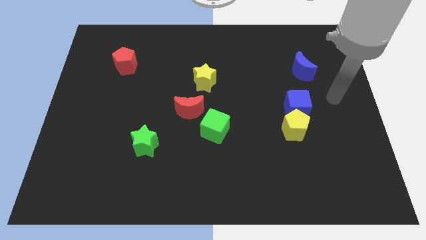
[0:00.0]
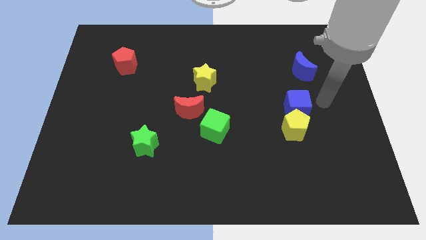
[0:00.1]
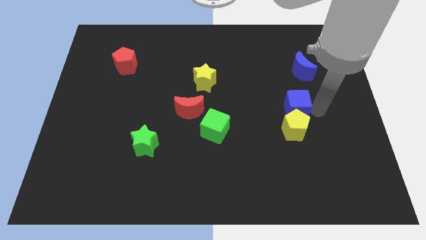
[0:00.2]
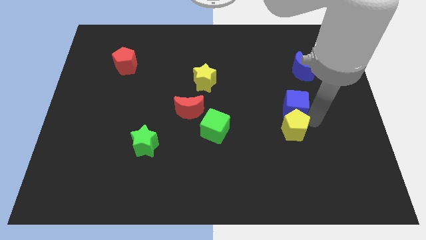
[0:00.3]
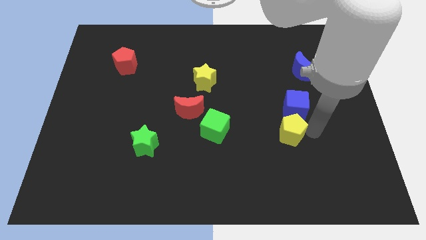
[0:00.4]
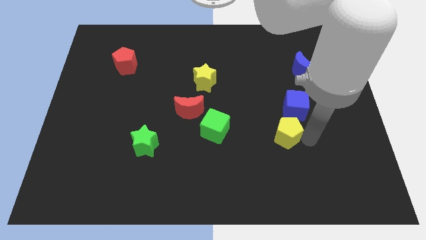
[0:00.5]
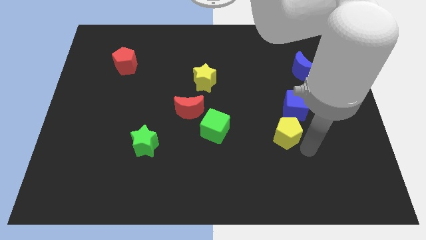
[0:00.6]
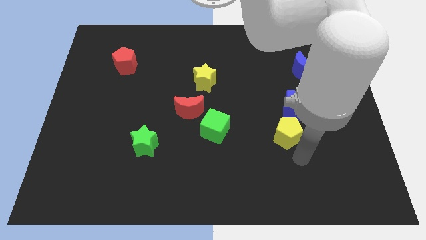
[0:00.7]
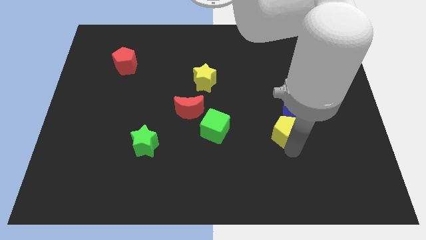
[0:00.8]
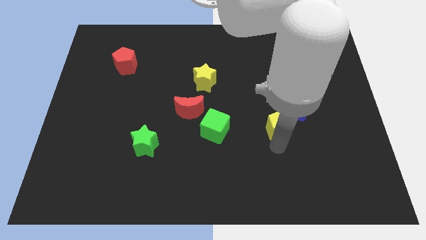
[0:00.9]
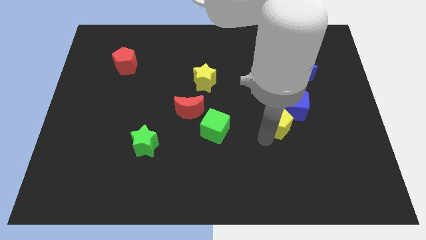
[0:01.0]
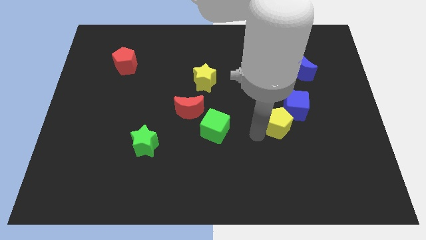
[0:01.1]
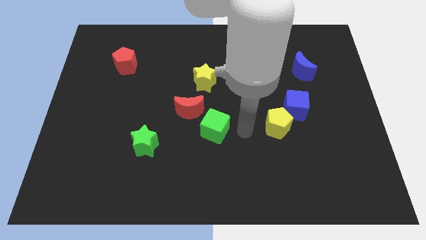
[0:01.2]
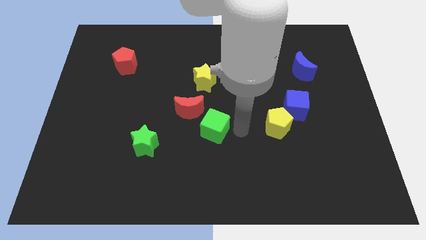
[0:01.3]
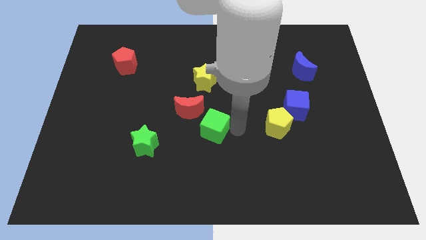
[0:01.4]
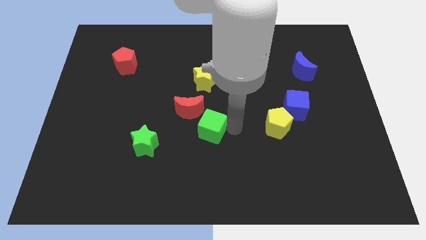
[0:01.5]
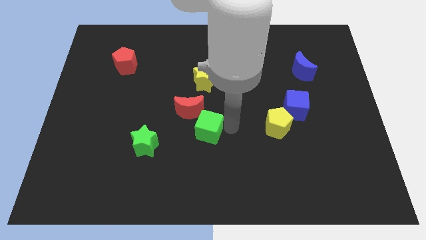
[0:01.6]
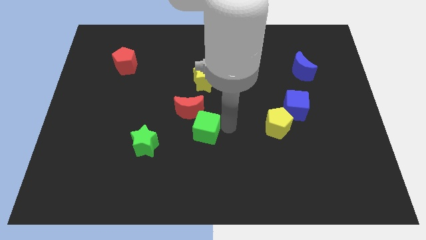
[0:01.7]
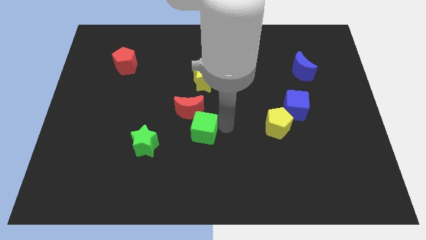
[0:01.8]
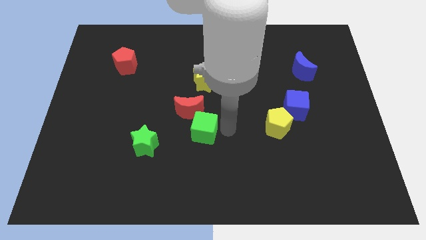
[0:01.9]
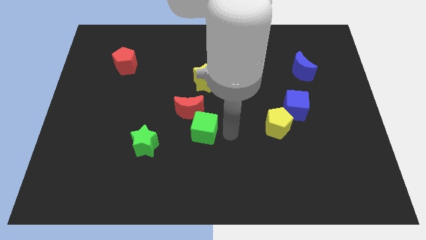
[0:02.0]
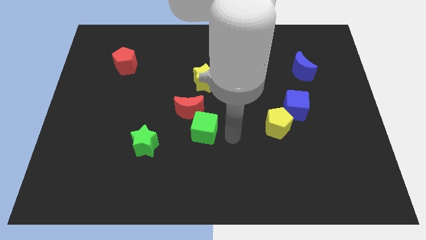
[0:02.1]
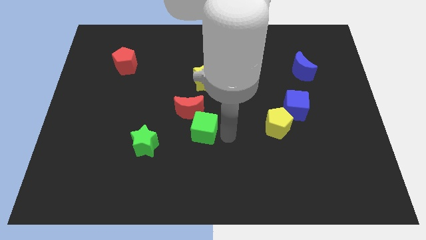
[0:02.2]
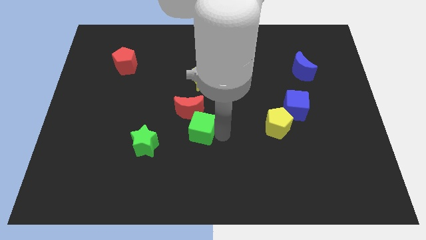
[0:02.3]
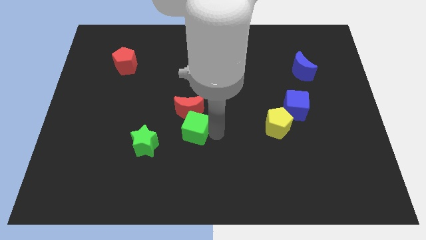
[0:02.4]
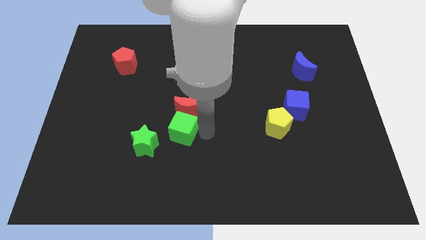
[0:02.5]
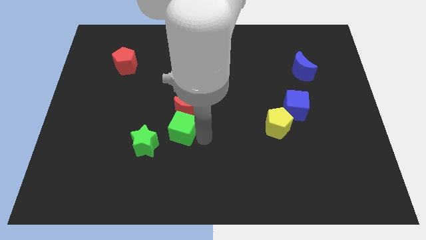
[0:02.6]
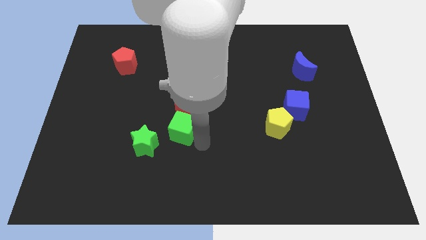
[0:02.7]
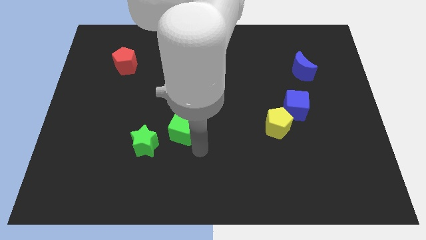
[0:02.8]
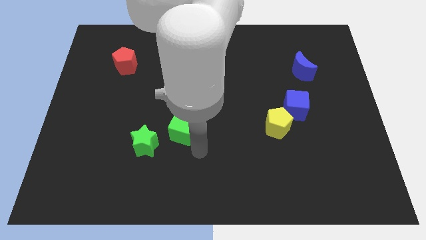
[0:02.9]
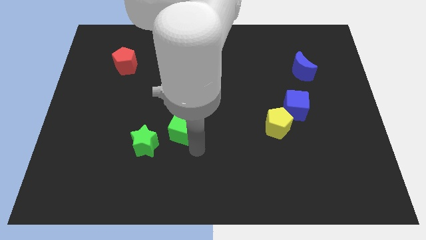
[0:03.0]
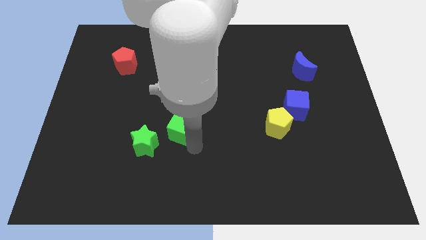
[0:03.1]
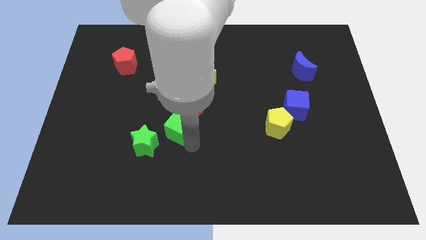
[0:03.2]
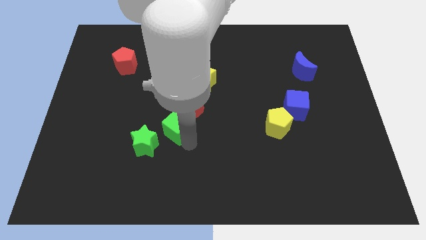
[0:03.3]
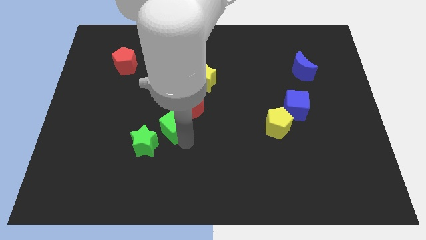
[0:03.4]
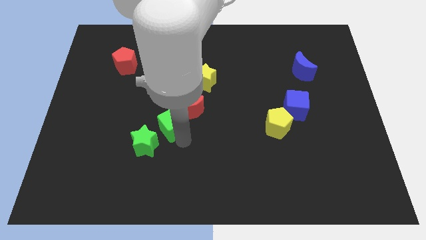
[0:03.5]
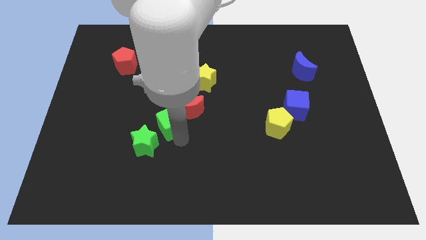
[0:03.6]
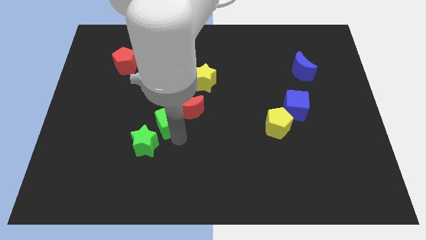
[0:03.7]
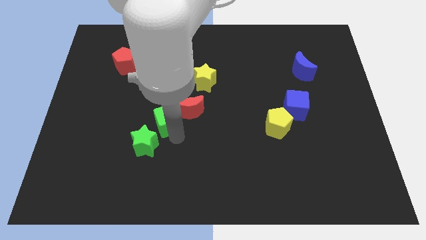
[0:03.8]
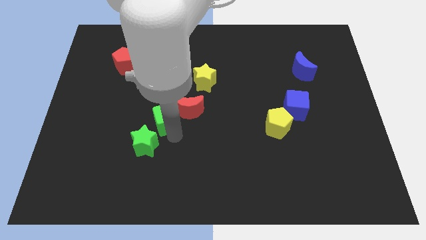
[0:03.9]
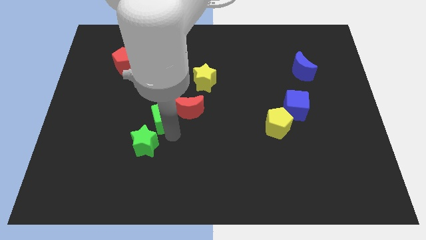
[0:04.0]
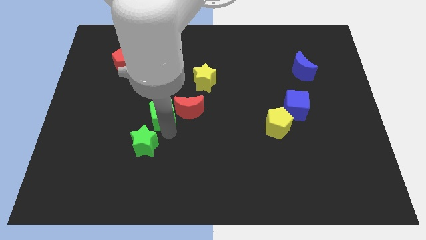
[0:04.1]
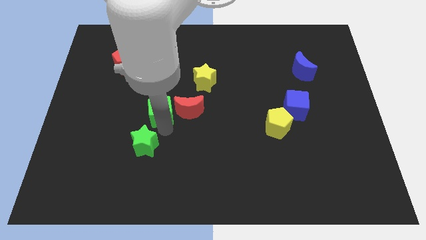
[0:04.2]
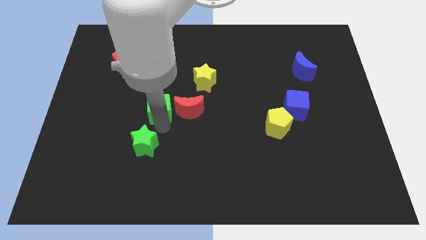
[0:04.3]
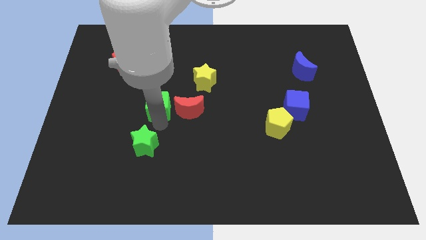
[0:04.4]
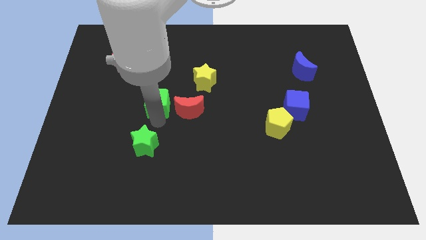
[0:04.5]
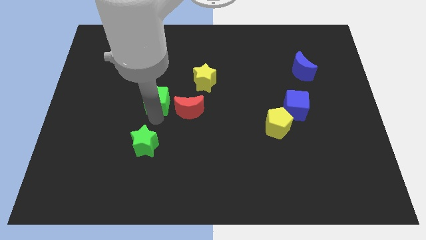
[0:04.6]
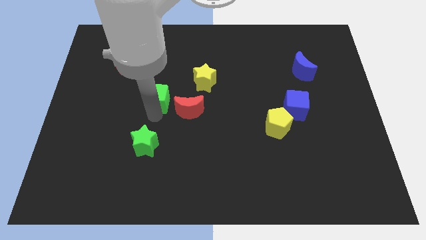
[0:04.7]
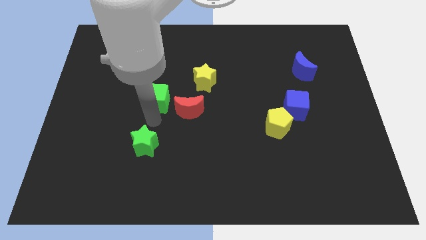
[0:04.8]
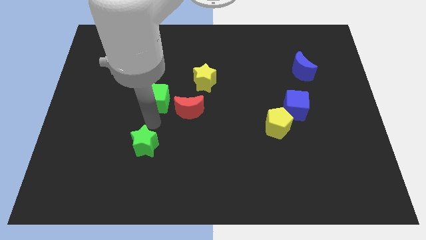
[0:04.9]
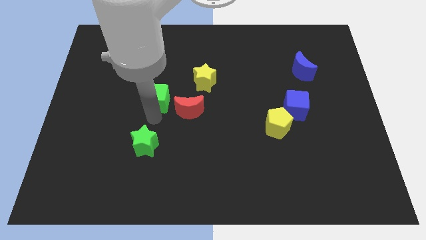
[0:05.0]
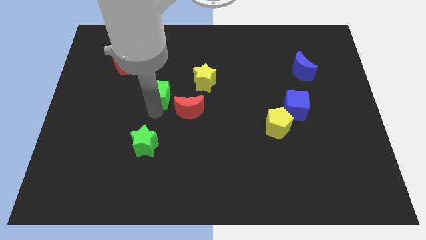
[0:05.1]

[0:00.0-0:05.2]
move the green cube to the left side of the yellow star

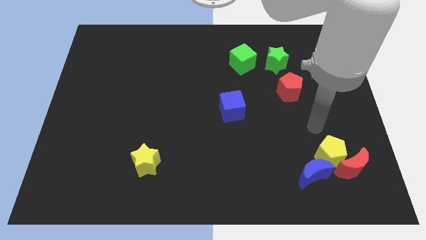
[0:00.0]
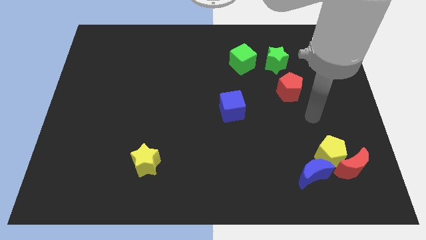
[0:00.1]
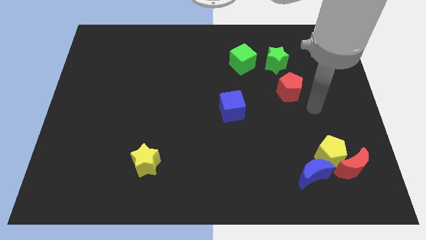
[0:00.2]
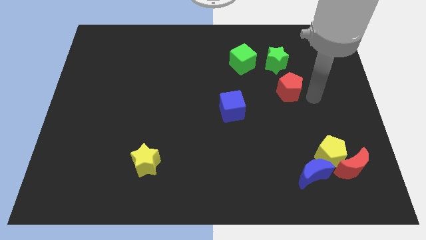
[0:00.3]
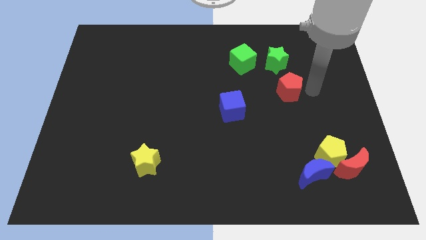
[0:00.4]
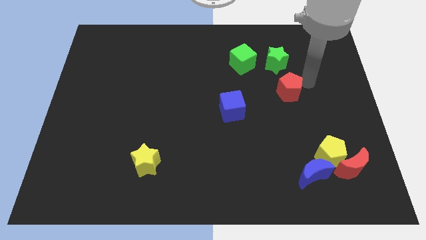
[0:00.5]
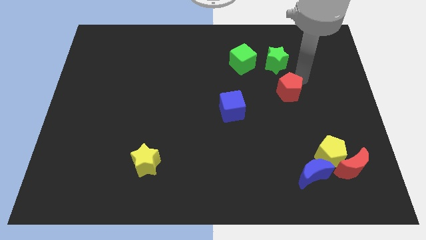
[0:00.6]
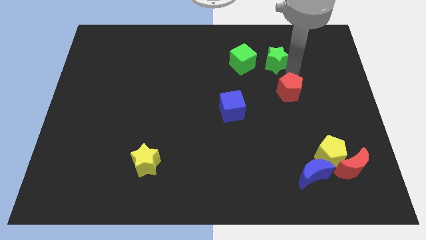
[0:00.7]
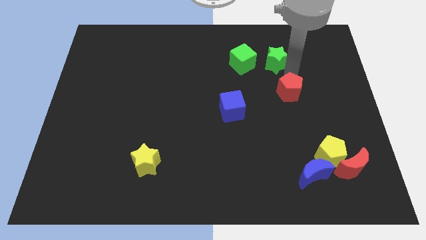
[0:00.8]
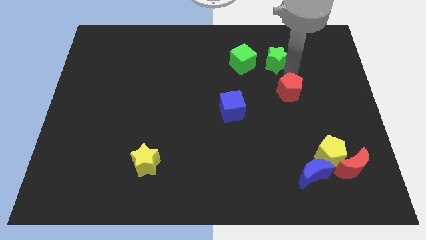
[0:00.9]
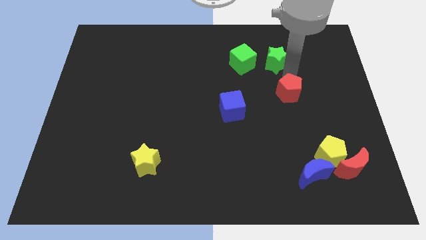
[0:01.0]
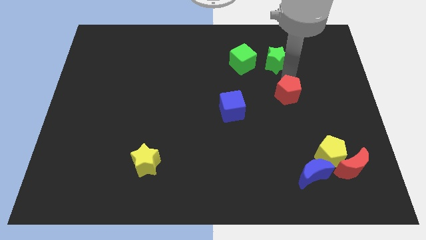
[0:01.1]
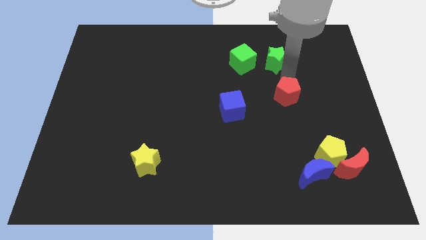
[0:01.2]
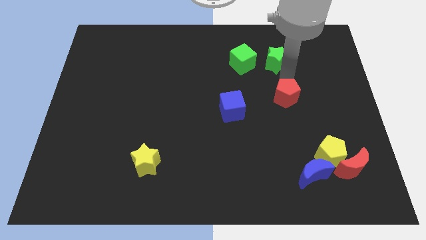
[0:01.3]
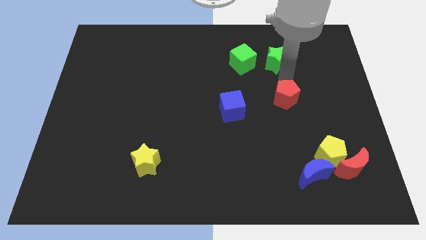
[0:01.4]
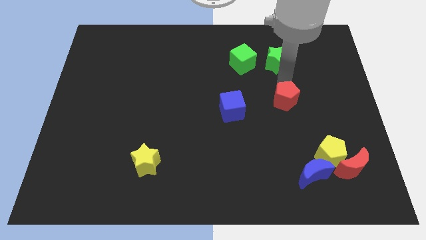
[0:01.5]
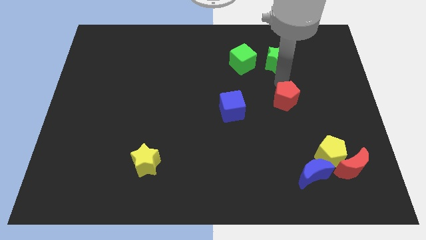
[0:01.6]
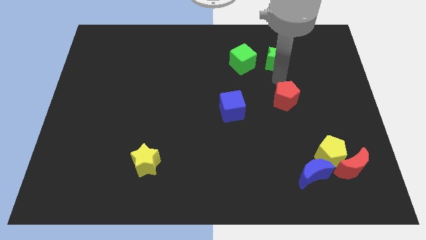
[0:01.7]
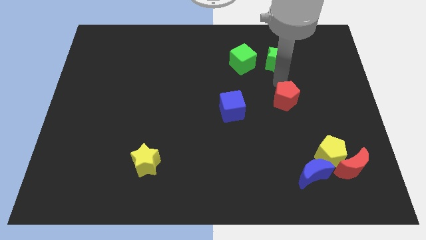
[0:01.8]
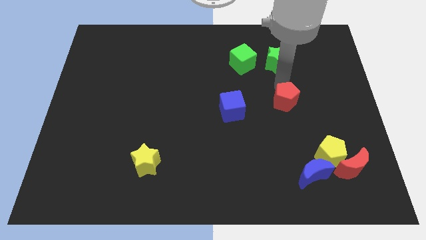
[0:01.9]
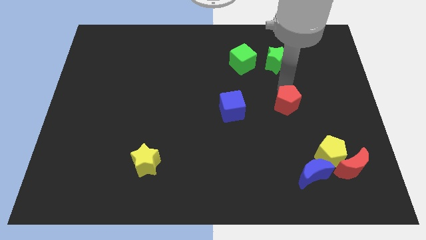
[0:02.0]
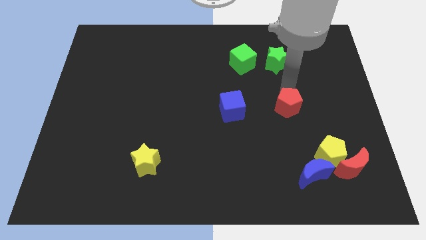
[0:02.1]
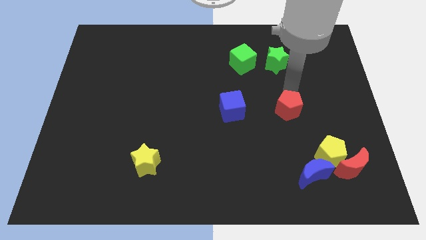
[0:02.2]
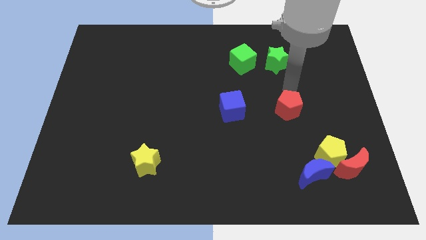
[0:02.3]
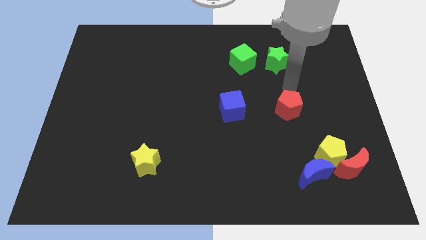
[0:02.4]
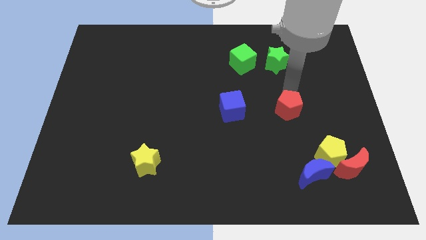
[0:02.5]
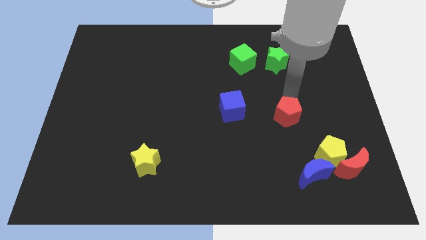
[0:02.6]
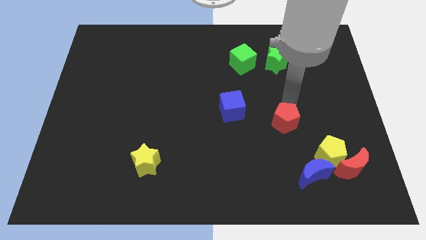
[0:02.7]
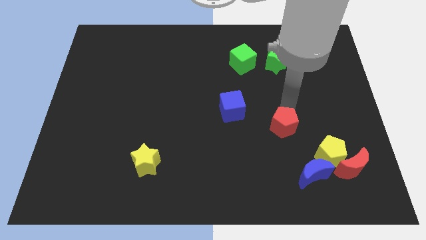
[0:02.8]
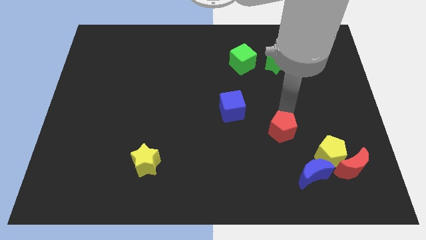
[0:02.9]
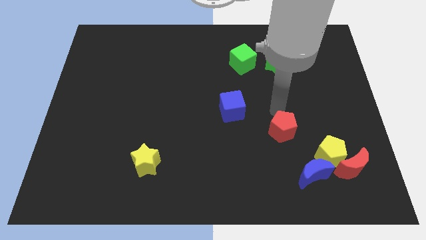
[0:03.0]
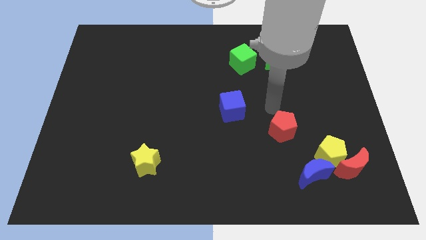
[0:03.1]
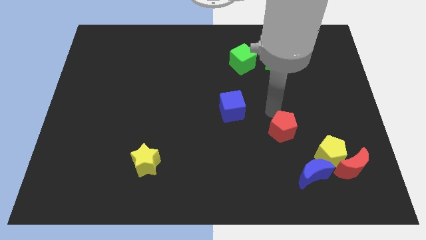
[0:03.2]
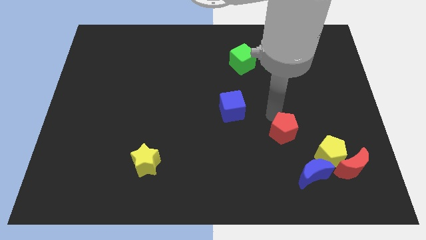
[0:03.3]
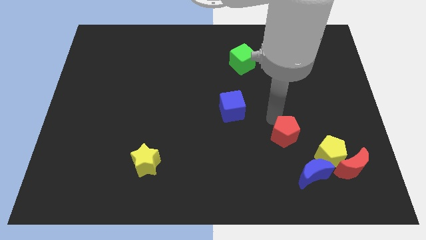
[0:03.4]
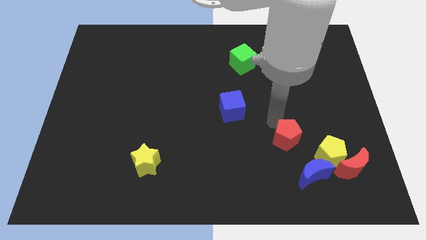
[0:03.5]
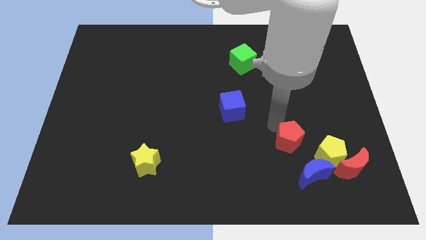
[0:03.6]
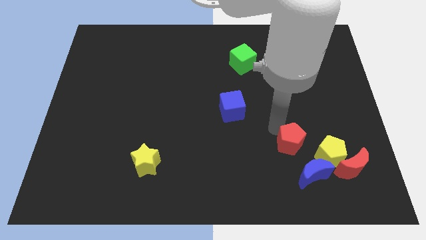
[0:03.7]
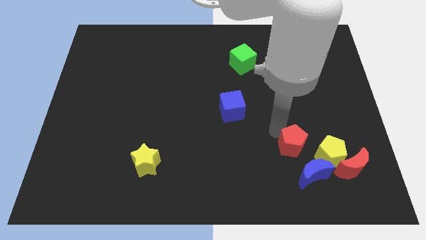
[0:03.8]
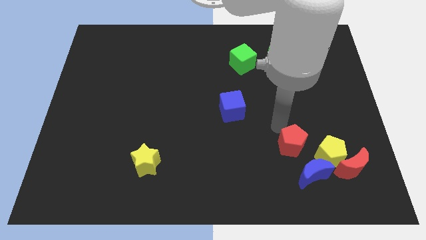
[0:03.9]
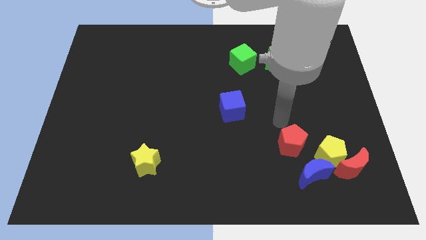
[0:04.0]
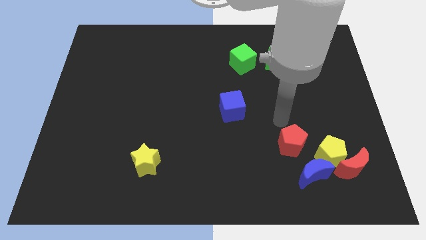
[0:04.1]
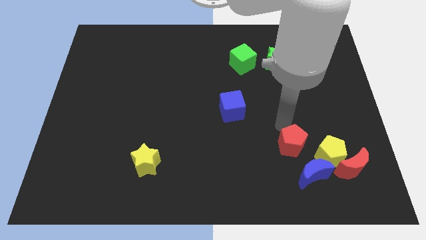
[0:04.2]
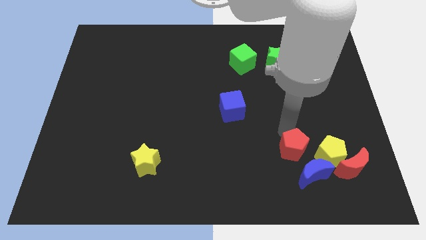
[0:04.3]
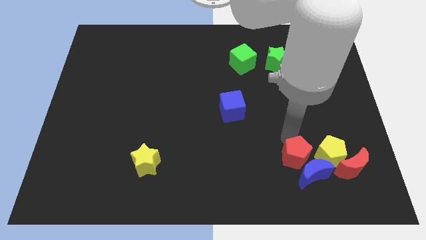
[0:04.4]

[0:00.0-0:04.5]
put the red pentagon to the left of the red moon
